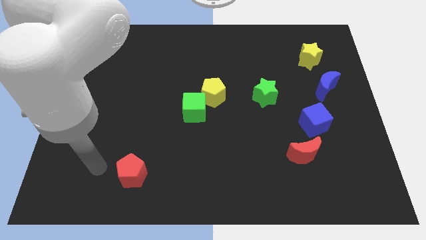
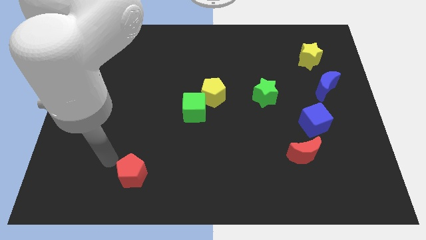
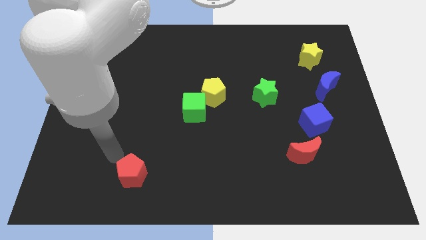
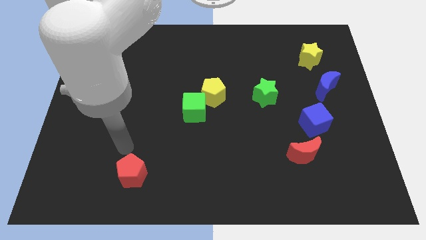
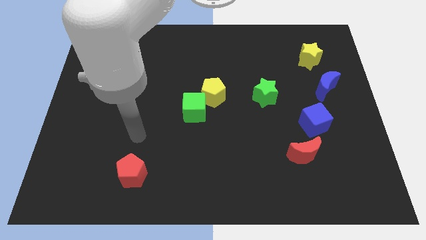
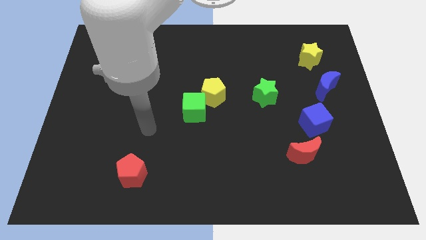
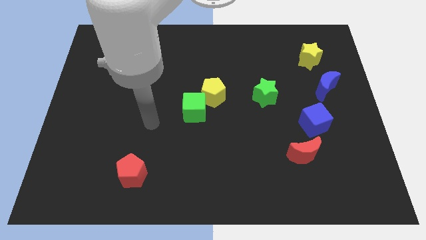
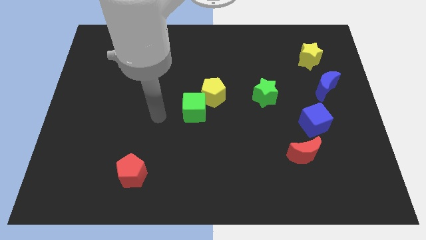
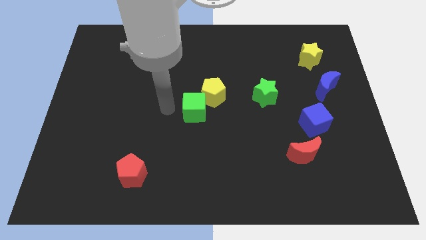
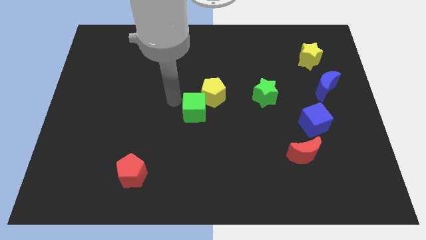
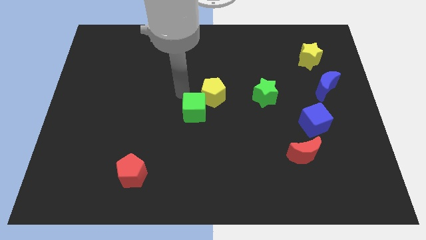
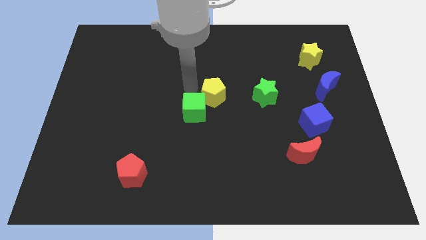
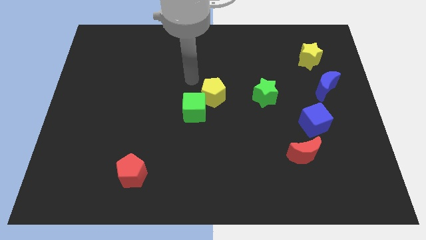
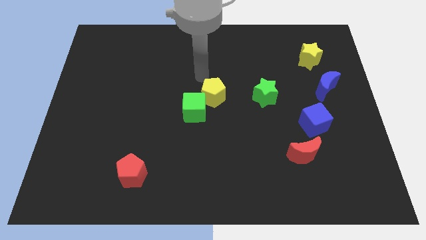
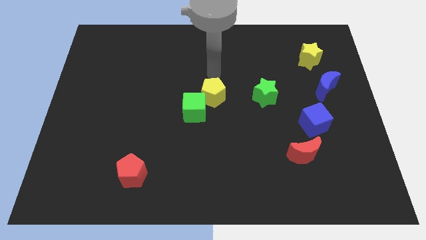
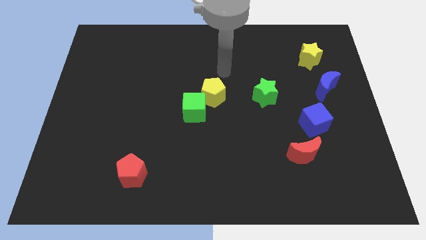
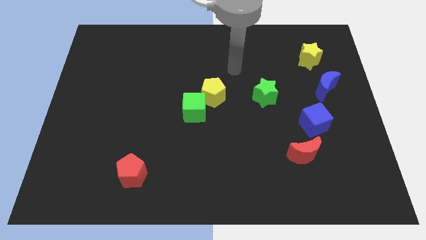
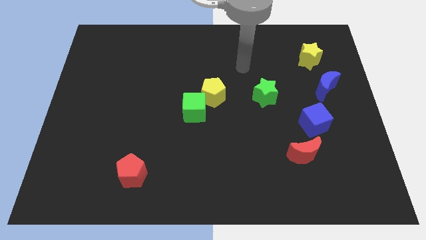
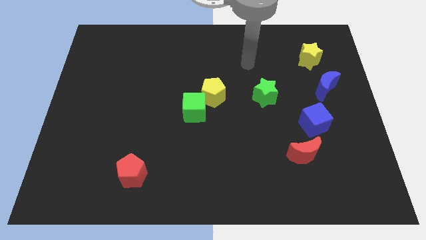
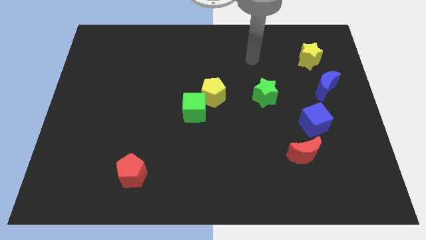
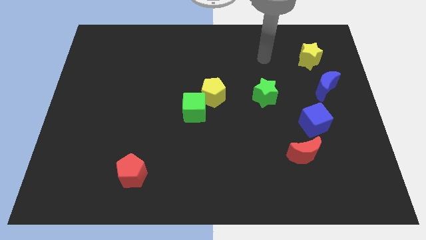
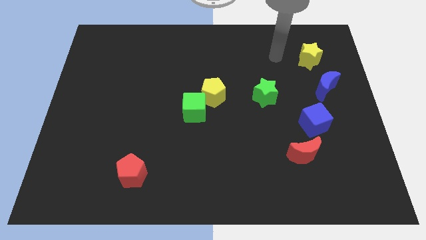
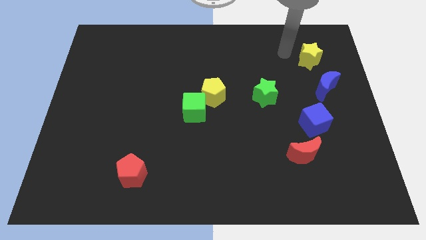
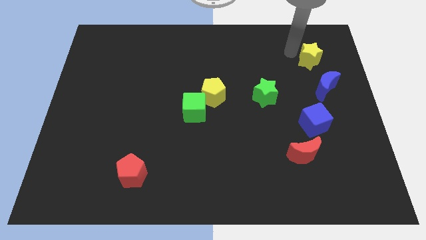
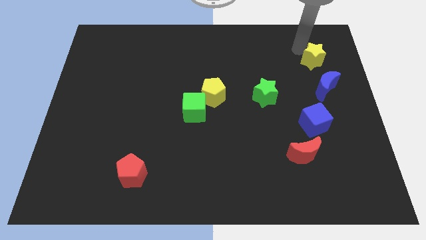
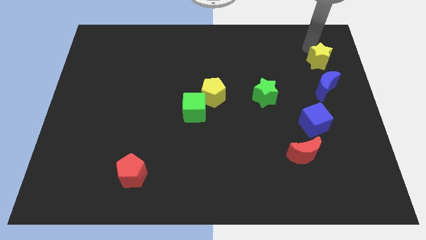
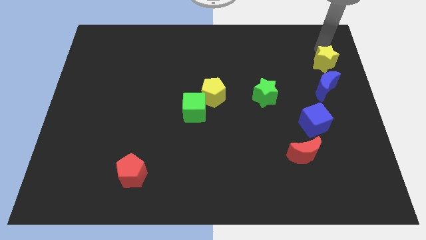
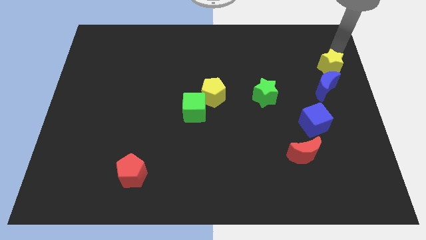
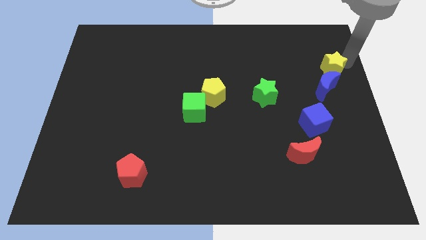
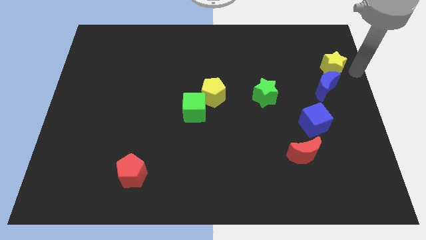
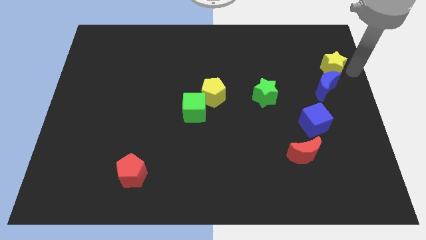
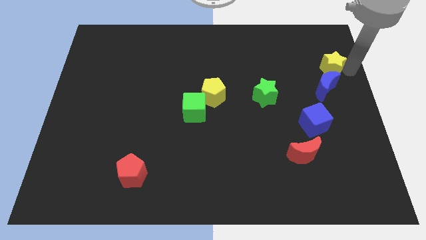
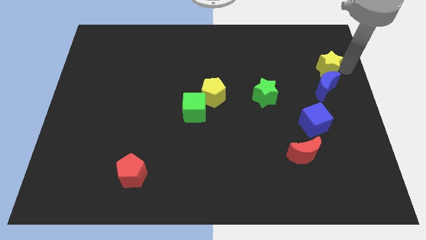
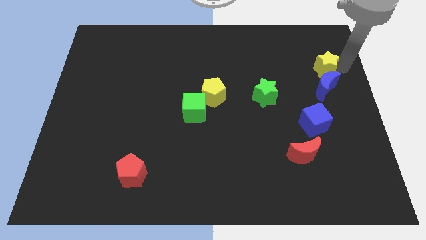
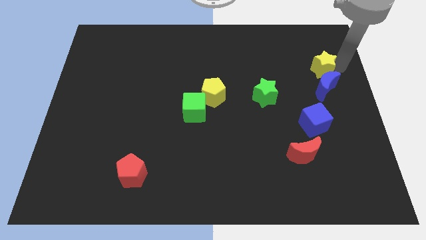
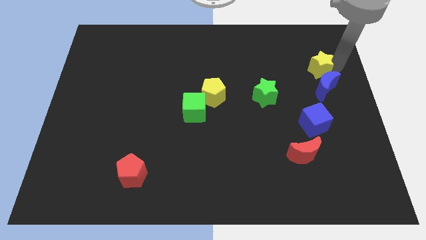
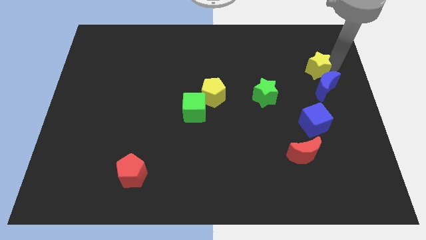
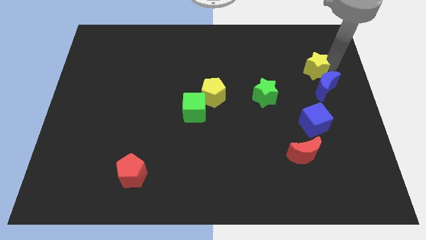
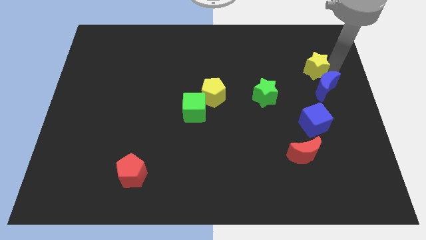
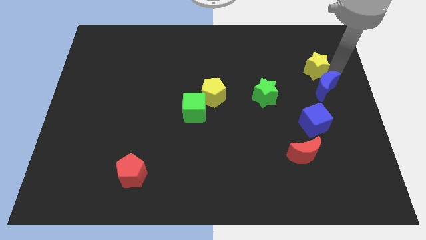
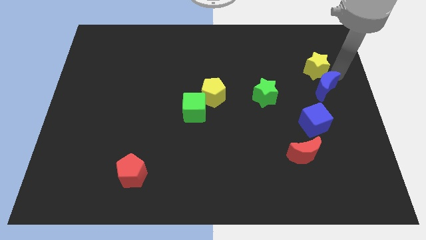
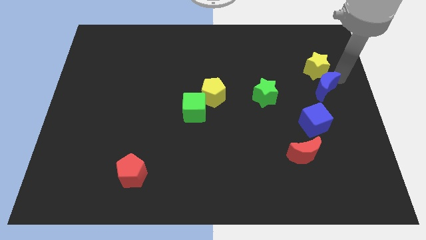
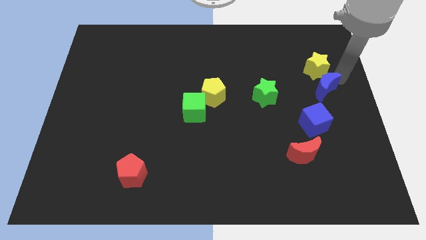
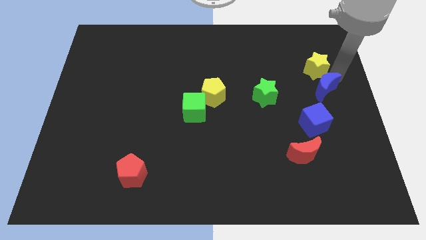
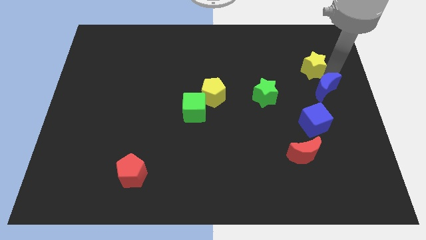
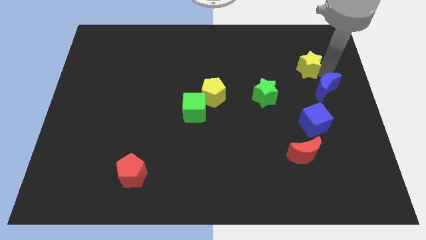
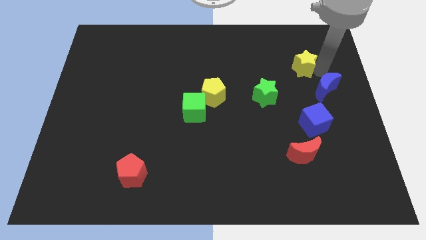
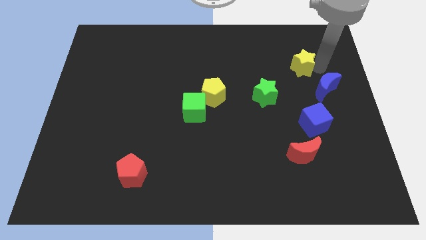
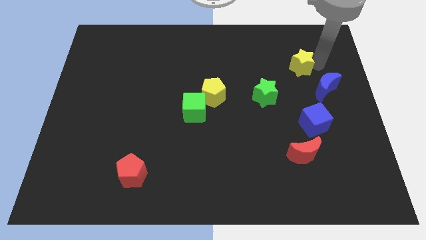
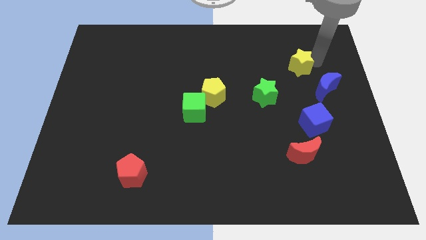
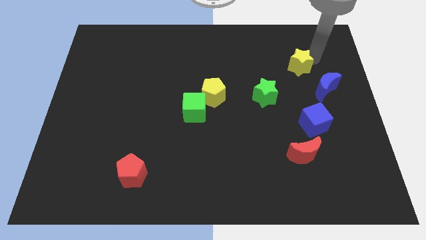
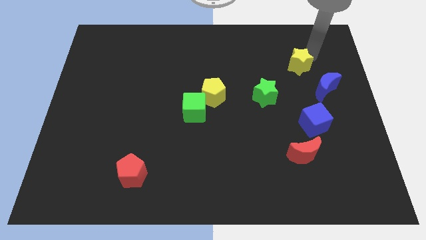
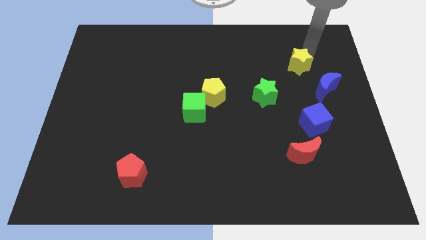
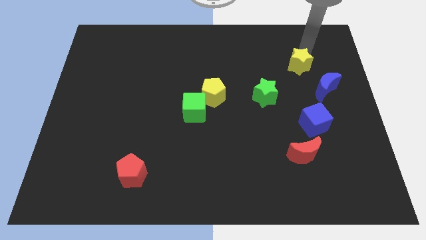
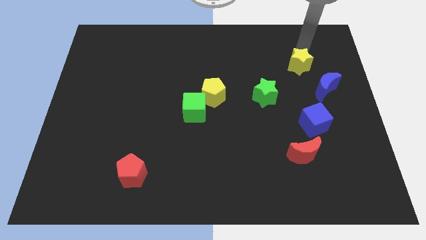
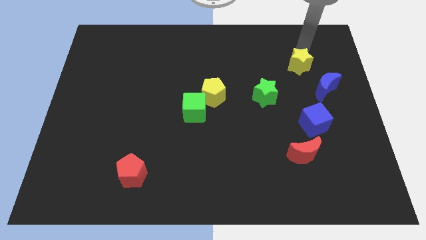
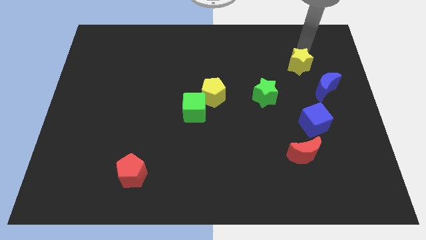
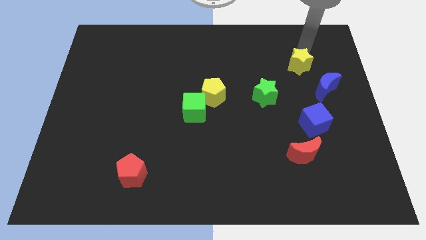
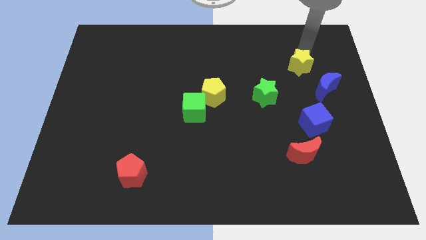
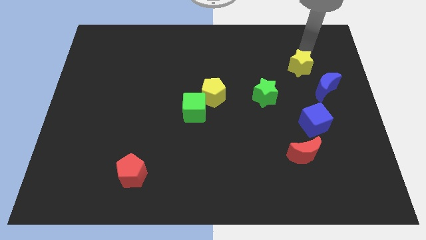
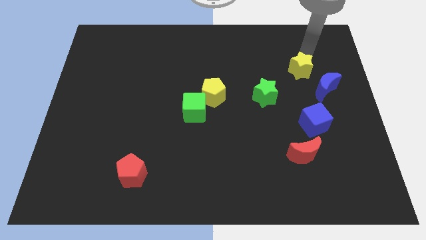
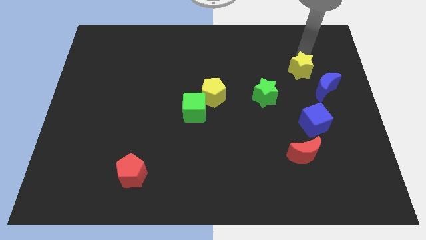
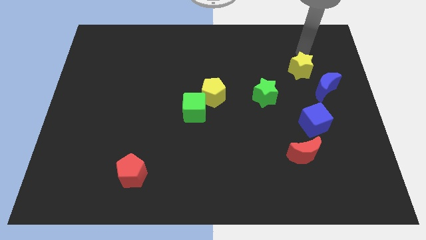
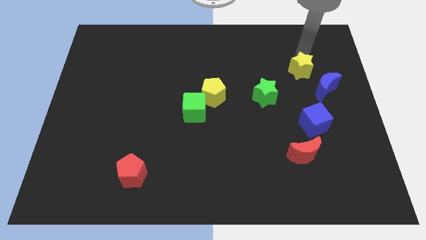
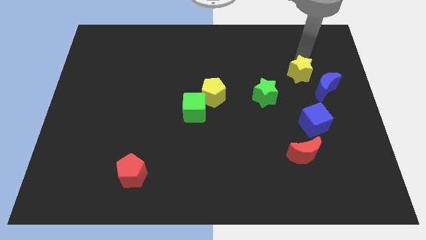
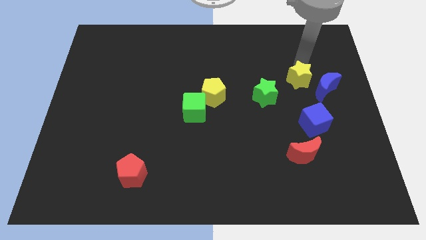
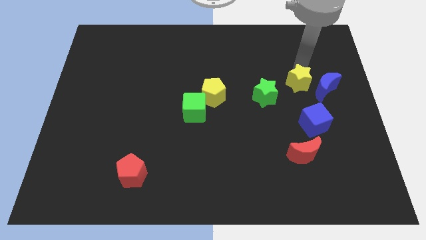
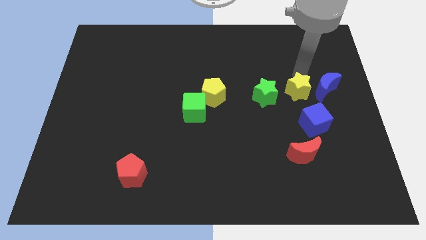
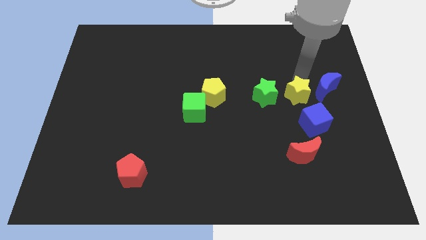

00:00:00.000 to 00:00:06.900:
slide the yellow star to the top left side of the blue cube

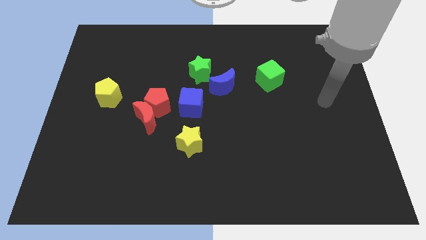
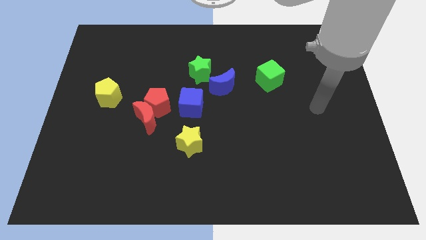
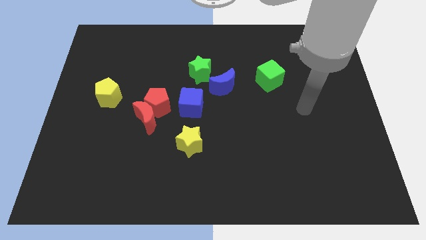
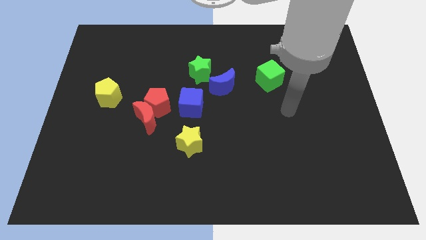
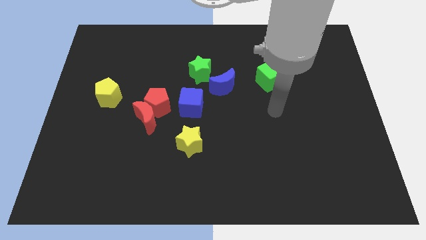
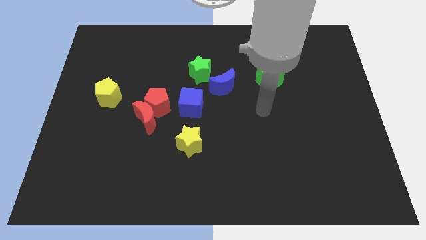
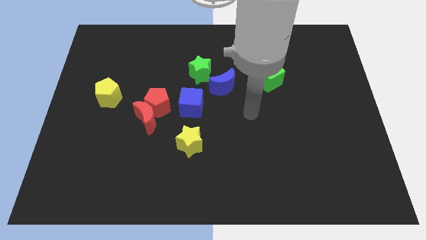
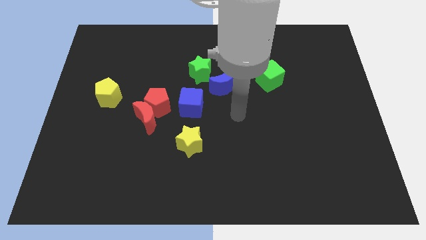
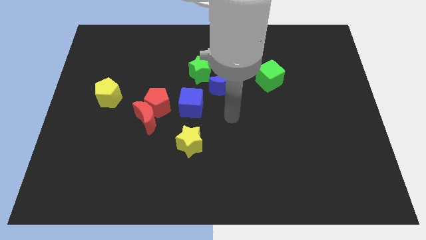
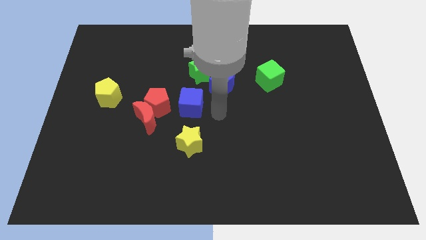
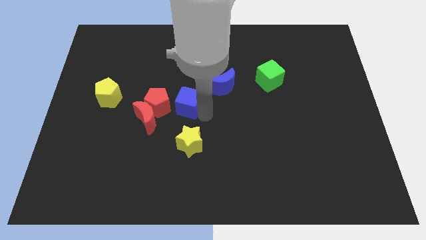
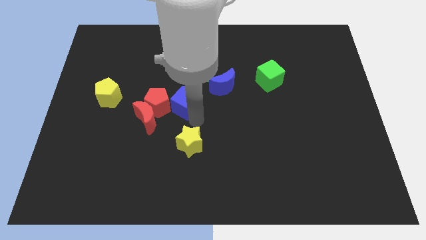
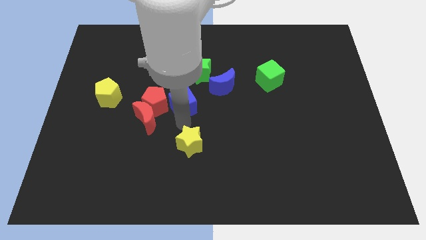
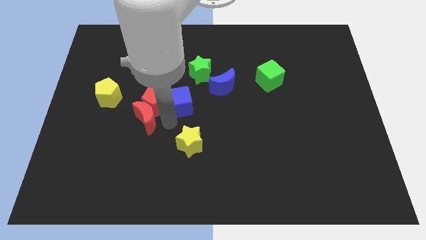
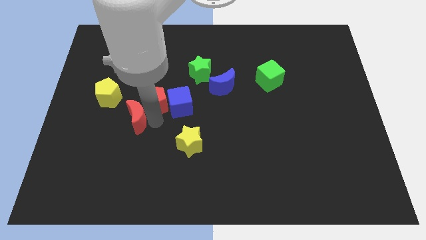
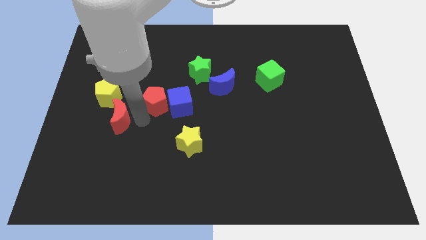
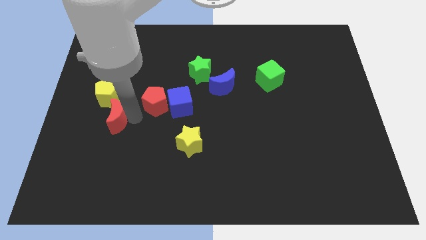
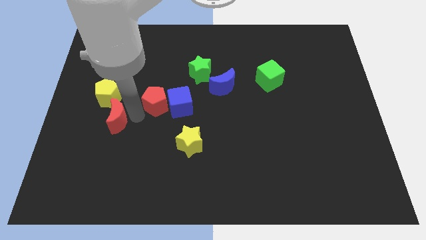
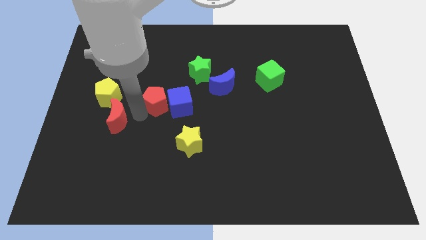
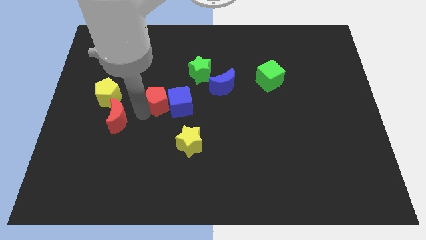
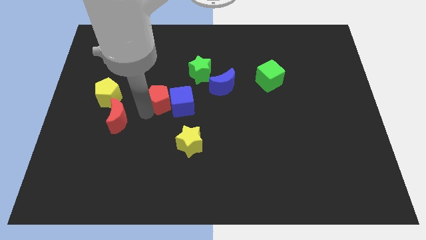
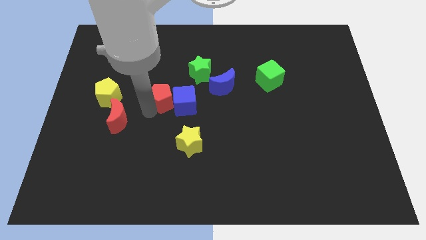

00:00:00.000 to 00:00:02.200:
push the red pentagon to the bottom left side of the green star
